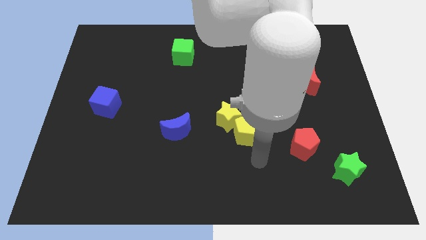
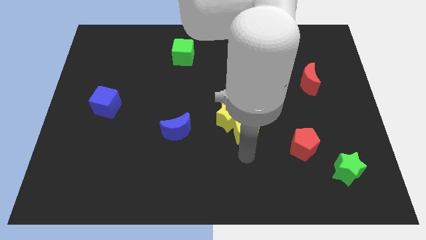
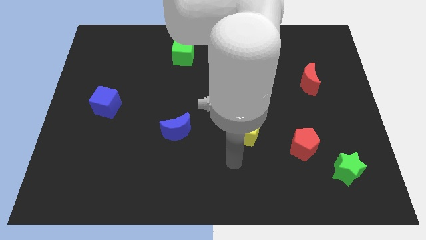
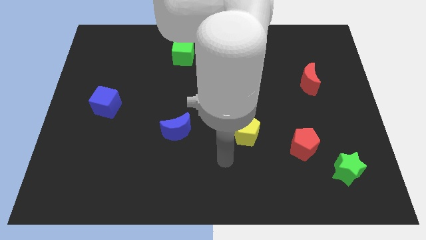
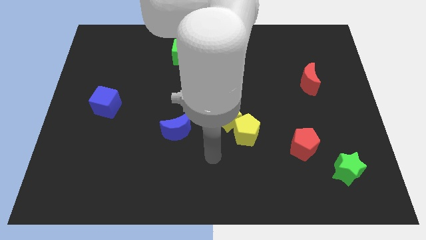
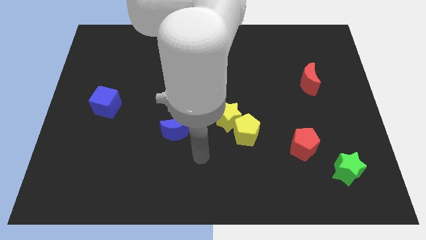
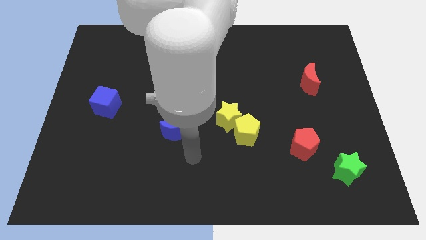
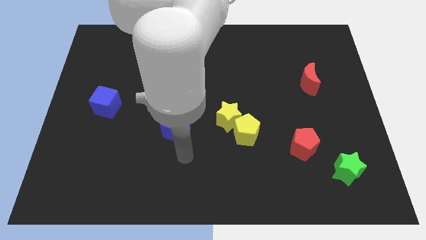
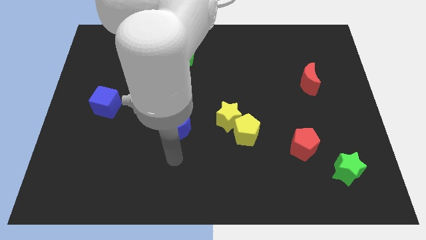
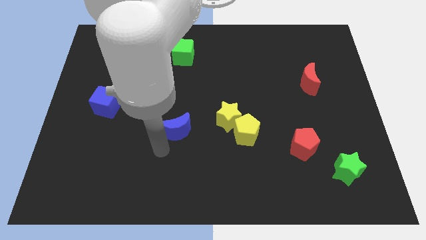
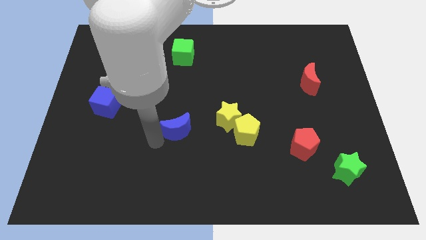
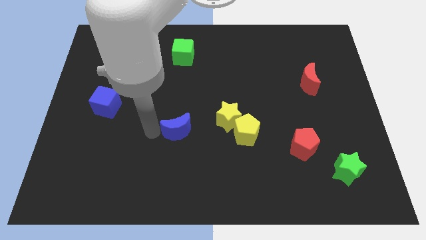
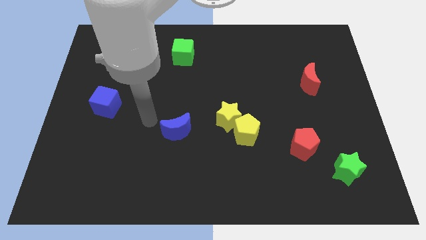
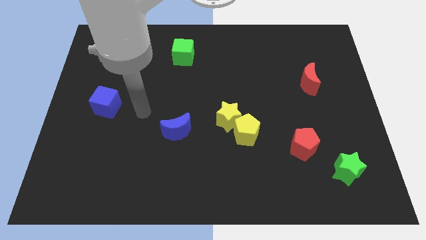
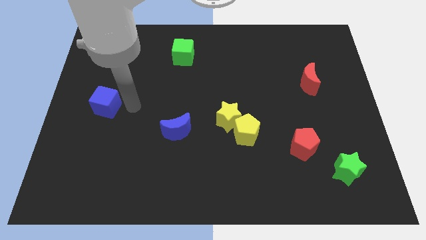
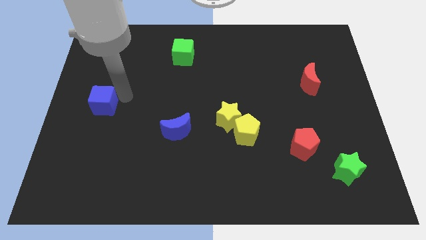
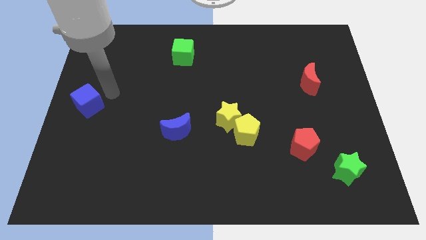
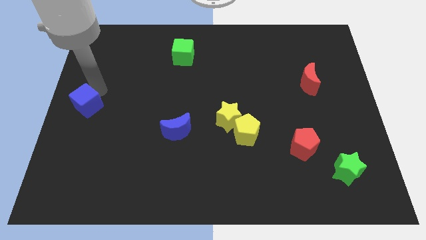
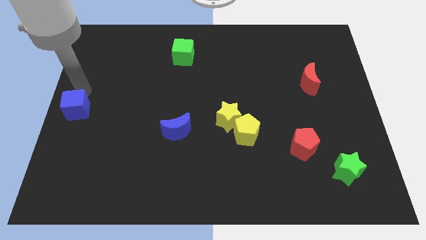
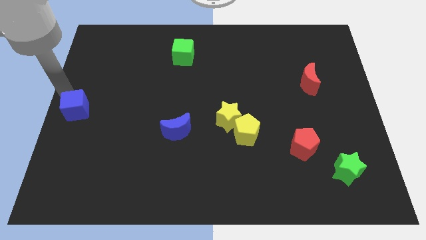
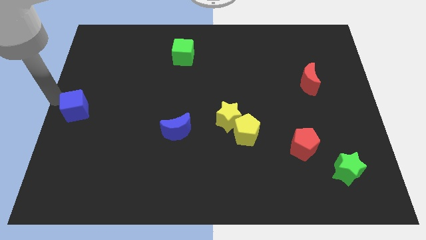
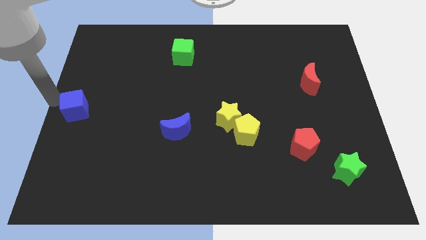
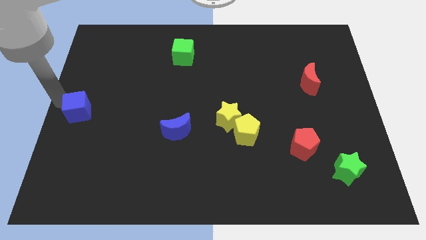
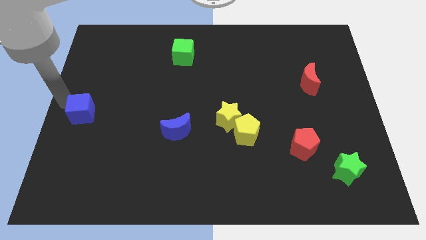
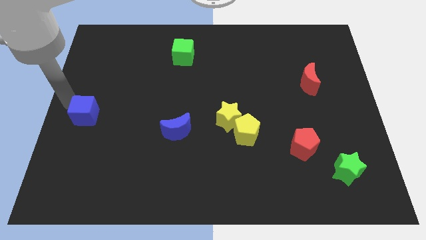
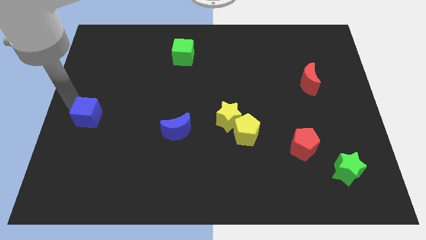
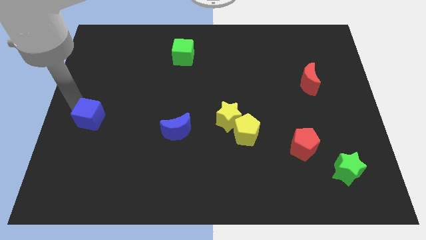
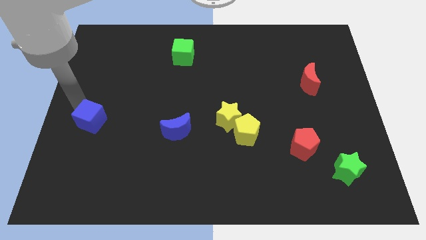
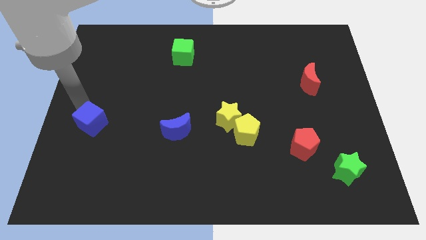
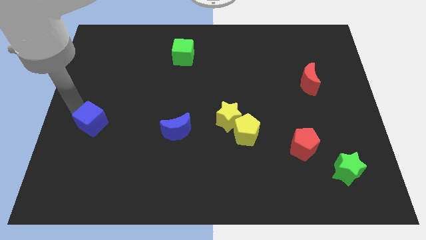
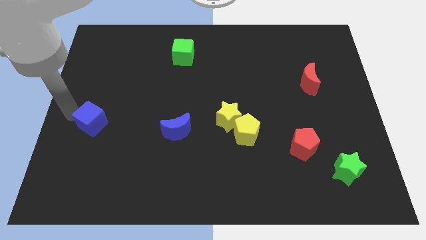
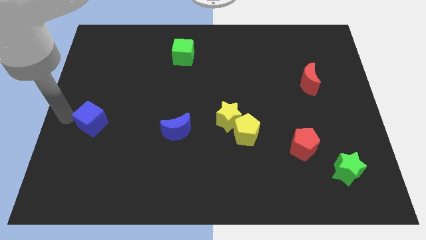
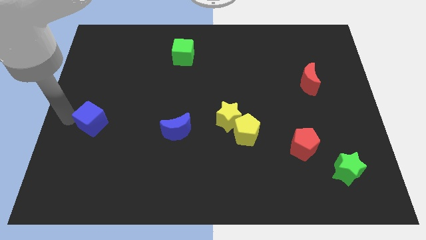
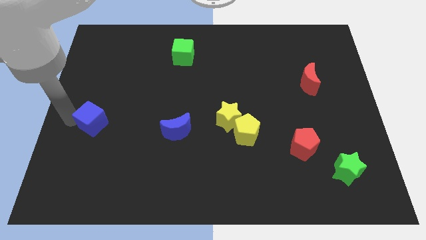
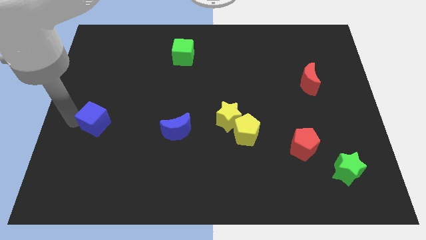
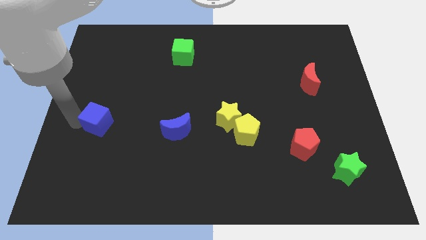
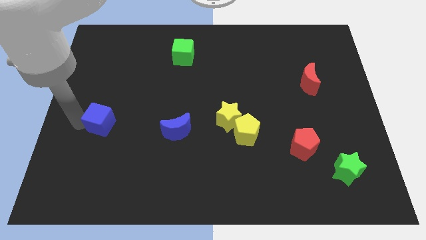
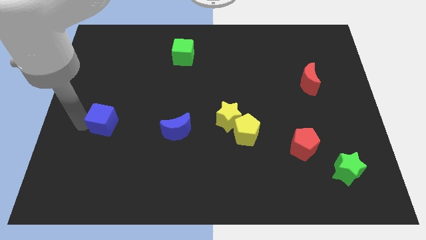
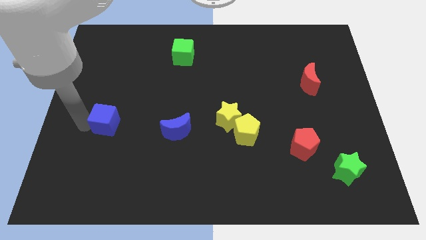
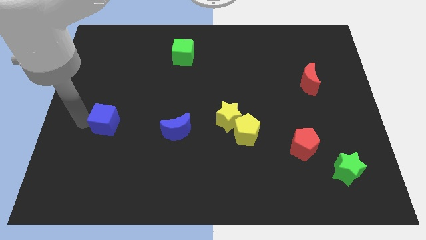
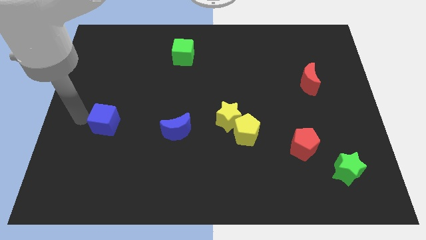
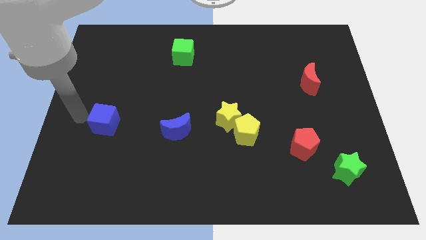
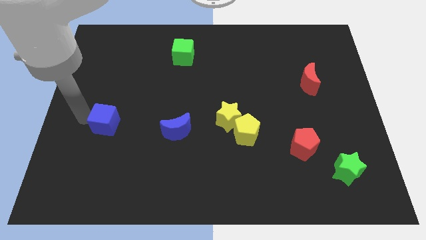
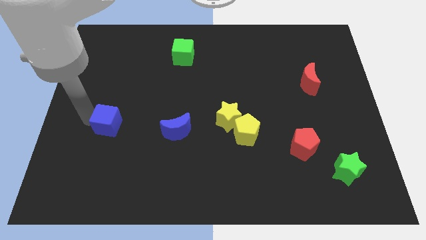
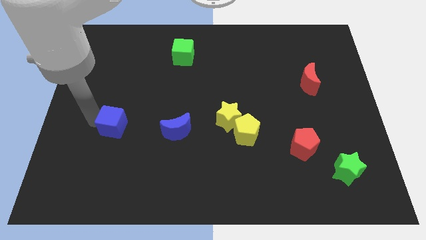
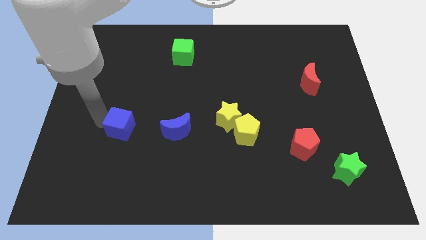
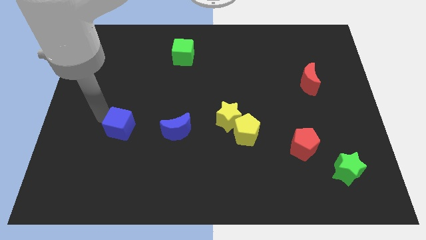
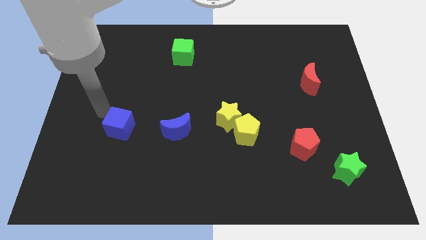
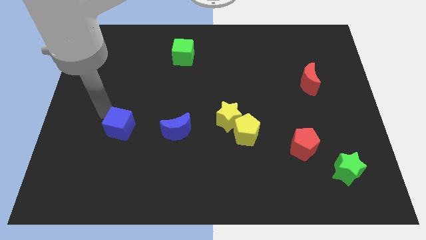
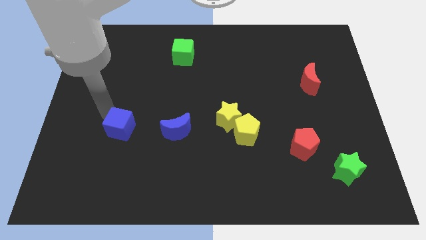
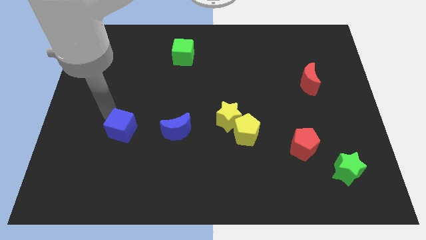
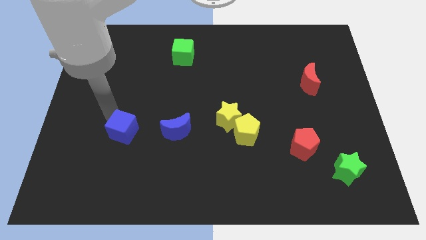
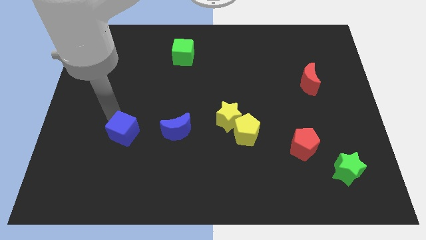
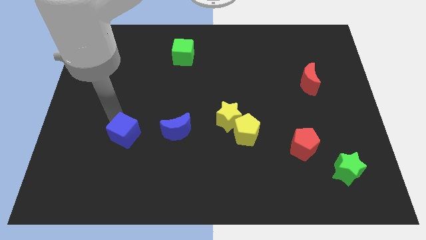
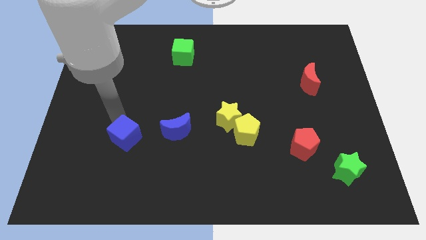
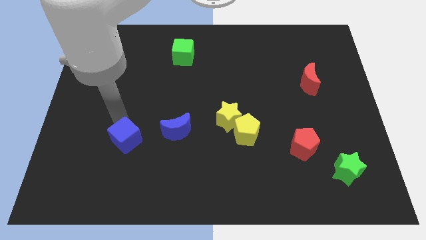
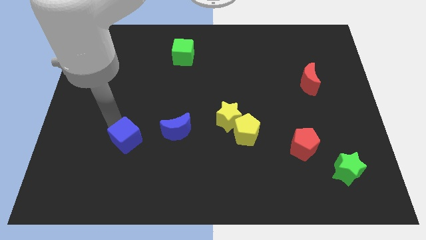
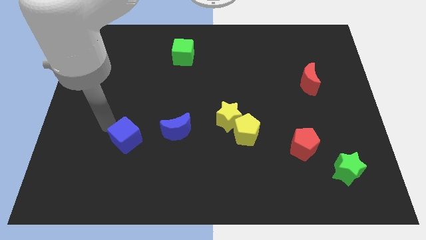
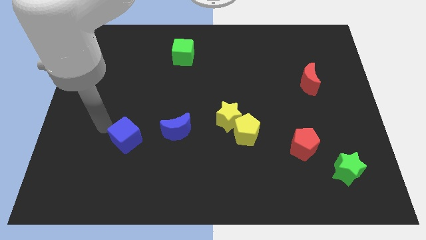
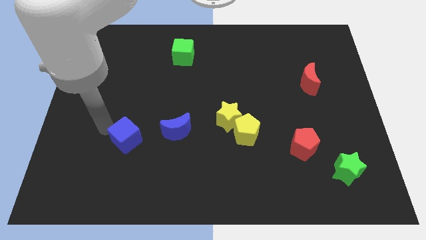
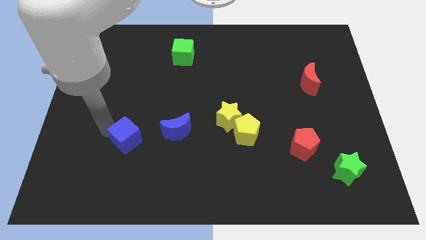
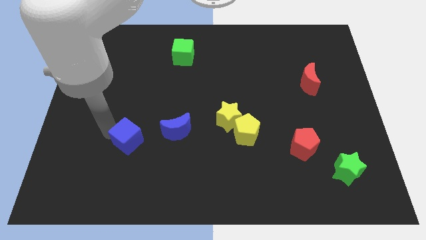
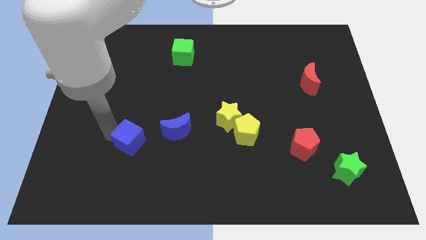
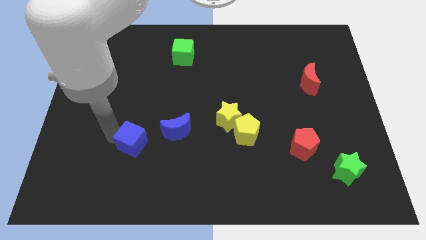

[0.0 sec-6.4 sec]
move the blue cube diagonally down and to the left of the blue moon
